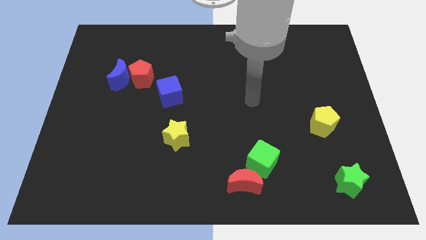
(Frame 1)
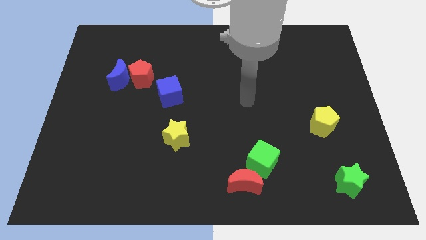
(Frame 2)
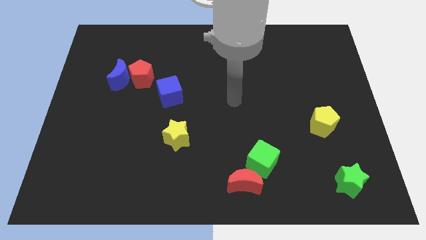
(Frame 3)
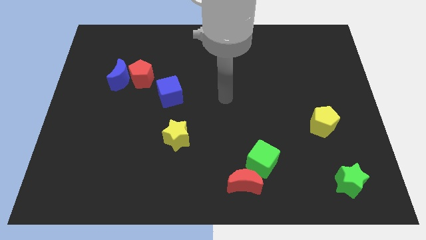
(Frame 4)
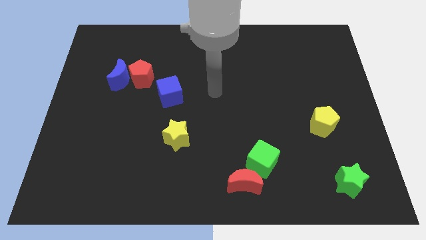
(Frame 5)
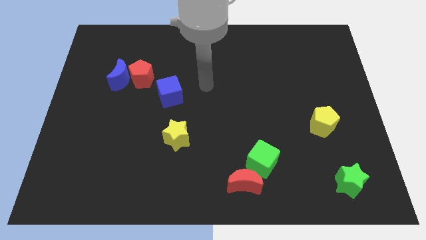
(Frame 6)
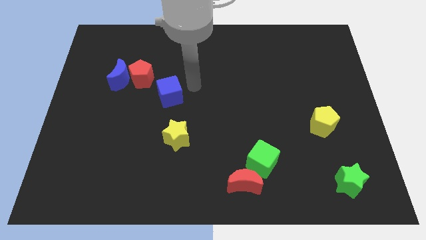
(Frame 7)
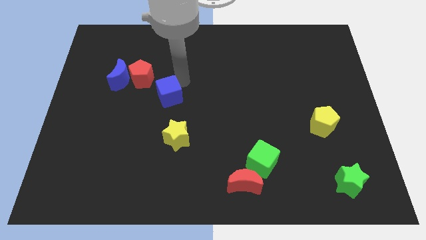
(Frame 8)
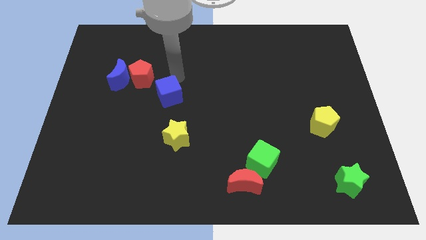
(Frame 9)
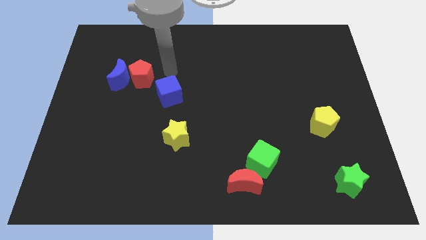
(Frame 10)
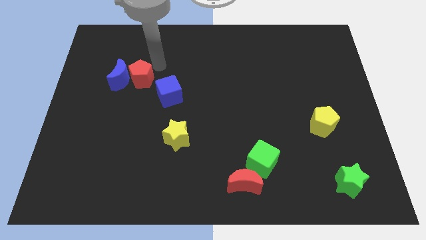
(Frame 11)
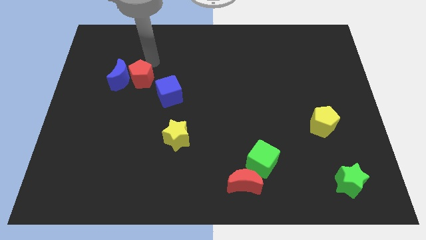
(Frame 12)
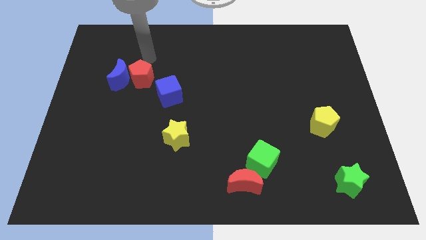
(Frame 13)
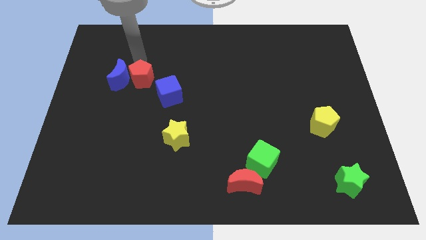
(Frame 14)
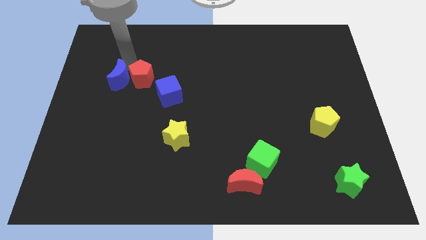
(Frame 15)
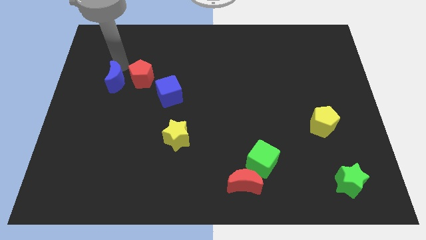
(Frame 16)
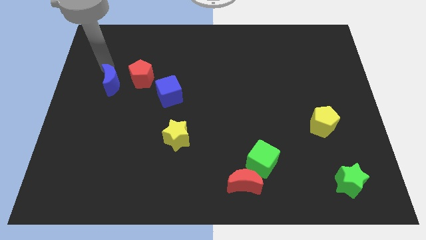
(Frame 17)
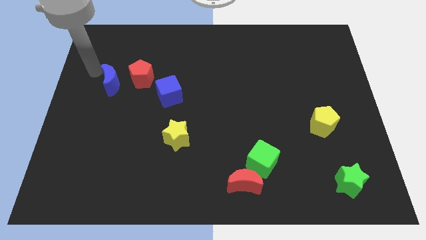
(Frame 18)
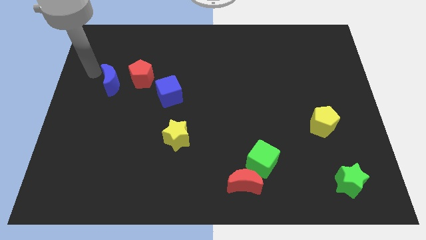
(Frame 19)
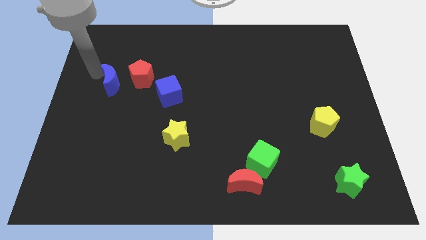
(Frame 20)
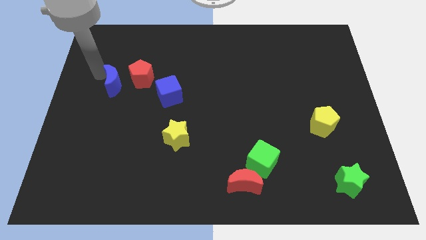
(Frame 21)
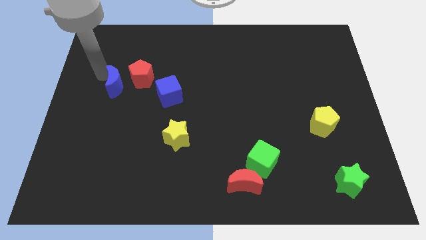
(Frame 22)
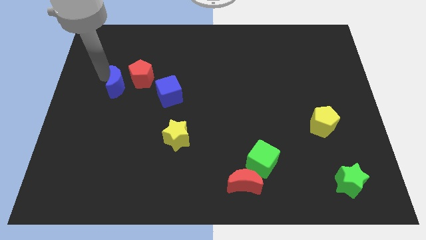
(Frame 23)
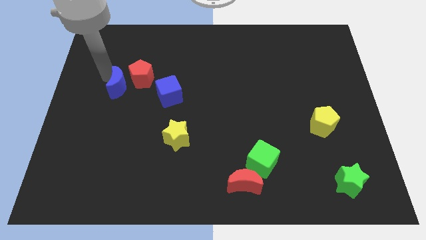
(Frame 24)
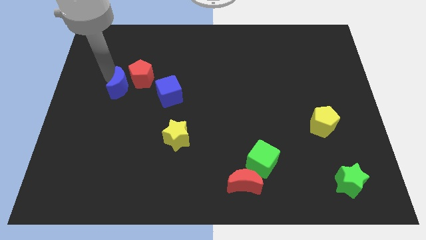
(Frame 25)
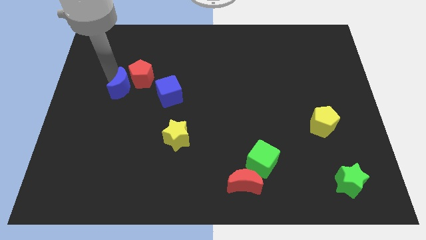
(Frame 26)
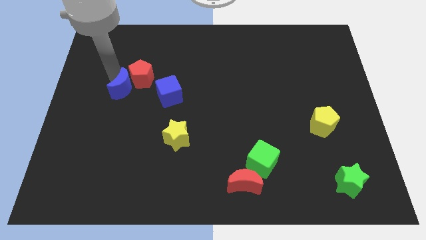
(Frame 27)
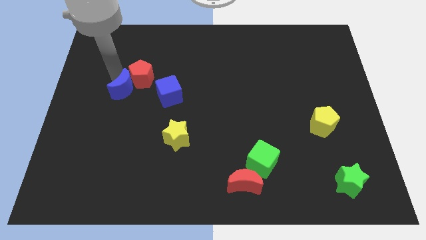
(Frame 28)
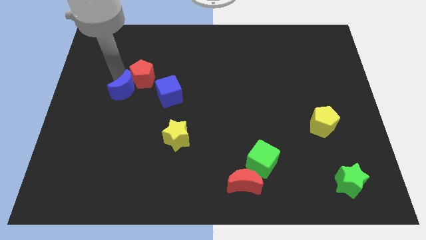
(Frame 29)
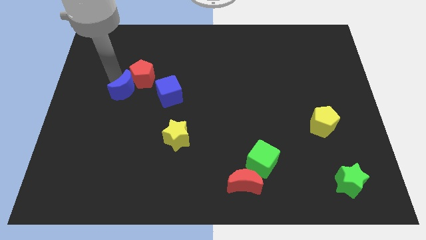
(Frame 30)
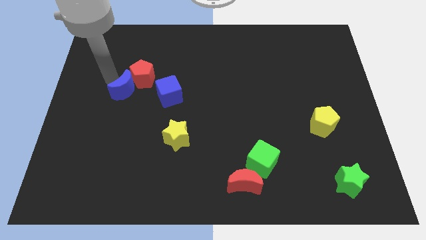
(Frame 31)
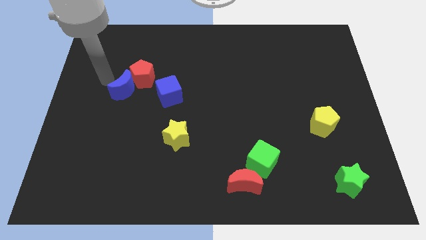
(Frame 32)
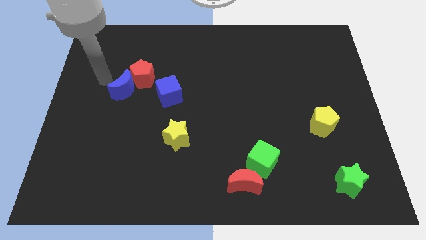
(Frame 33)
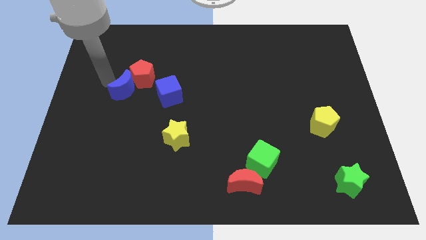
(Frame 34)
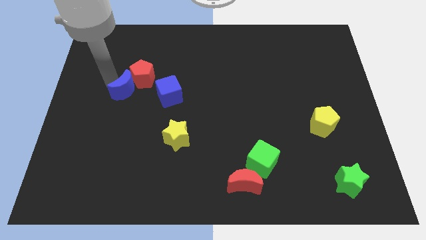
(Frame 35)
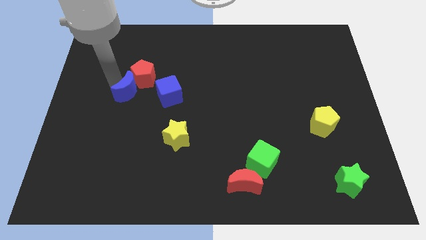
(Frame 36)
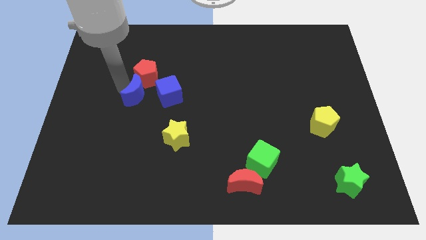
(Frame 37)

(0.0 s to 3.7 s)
slightly push the blue moon downwards and right

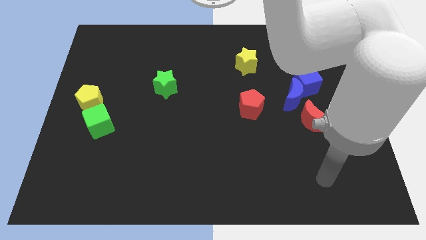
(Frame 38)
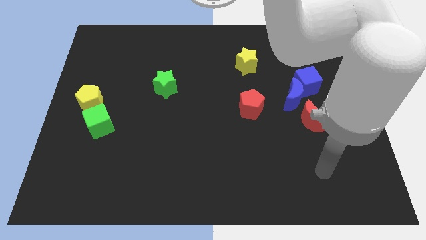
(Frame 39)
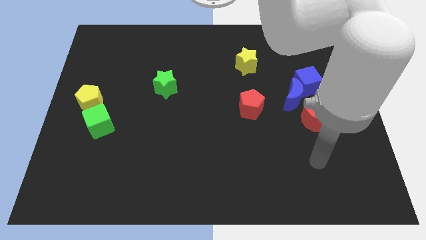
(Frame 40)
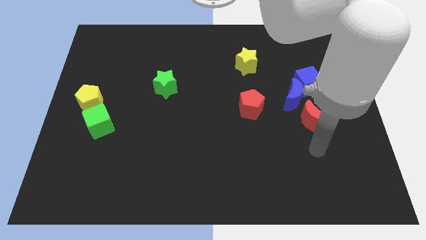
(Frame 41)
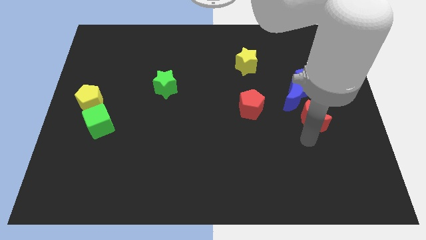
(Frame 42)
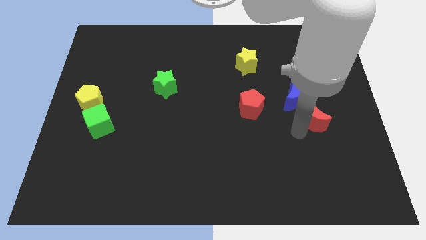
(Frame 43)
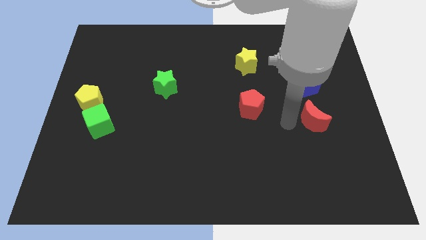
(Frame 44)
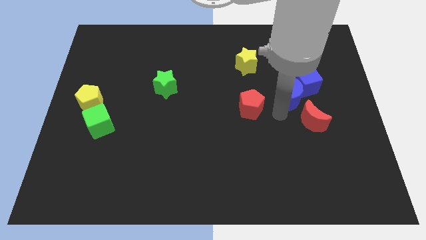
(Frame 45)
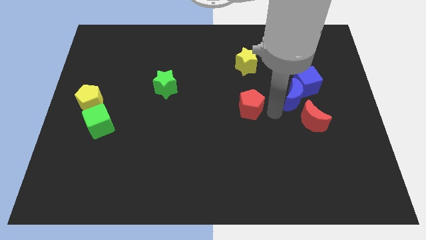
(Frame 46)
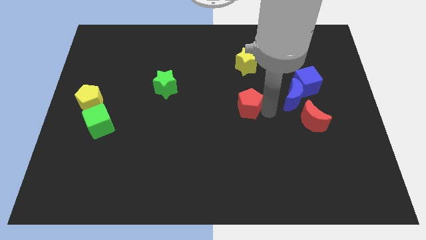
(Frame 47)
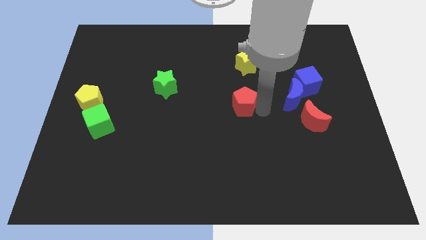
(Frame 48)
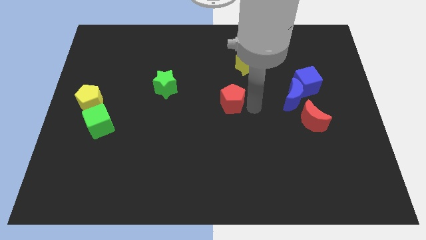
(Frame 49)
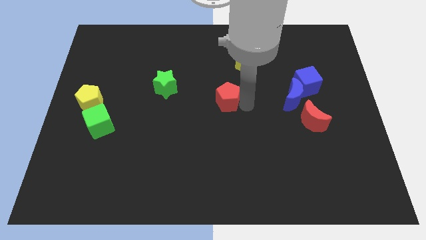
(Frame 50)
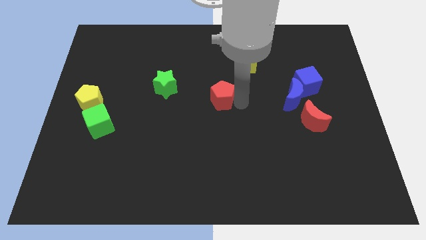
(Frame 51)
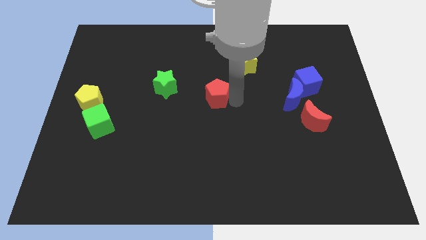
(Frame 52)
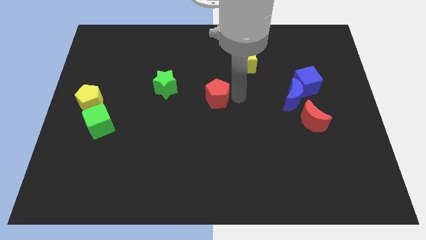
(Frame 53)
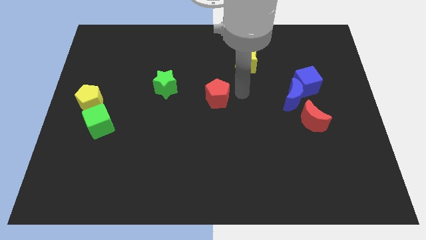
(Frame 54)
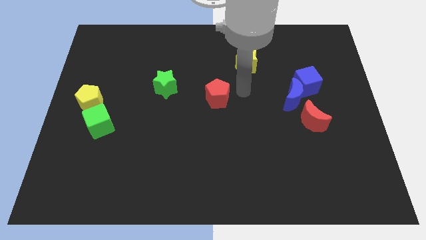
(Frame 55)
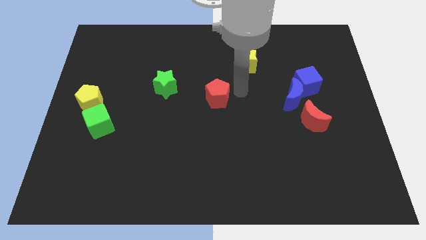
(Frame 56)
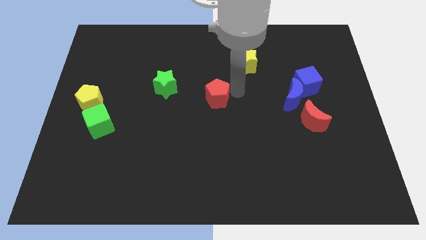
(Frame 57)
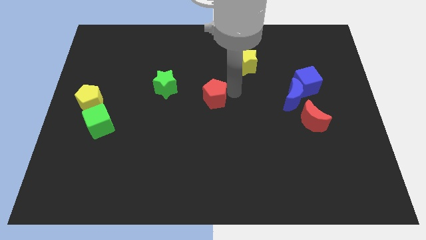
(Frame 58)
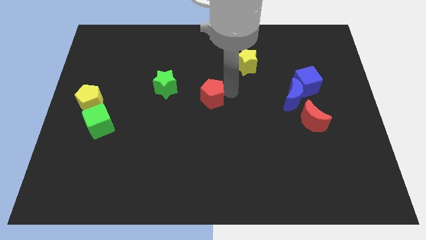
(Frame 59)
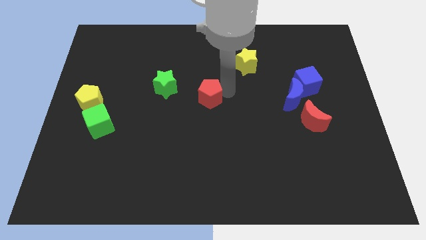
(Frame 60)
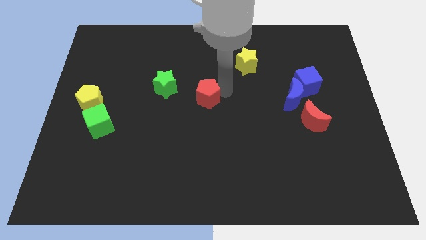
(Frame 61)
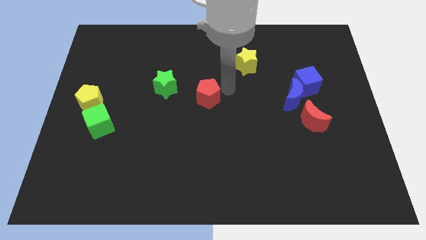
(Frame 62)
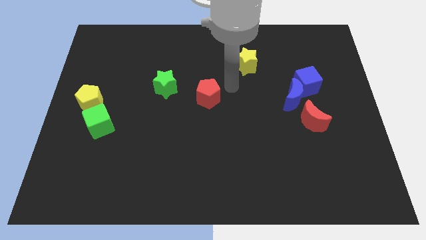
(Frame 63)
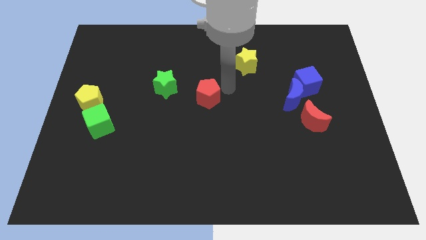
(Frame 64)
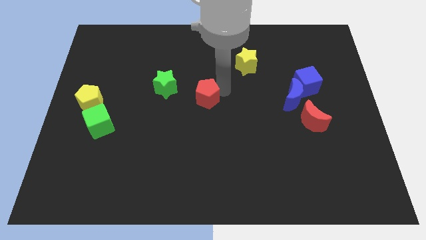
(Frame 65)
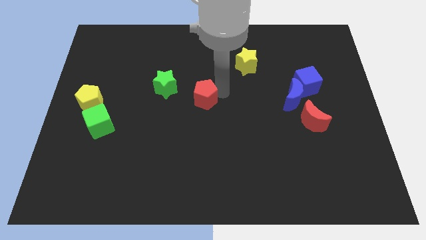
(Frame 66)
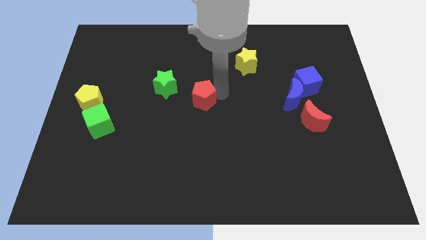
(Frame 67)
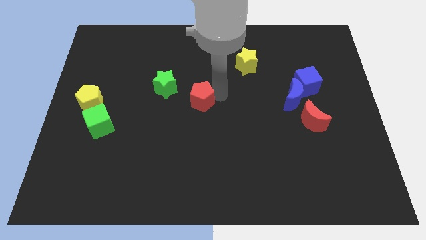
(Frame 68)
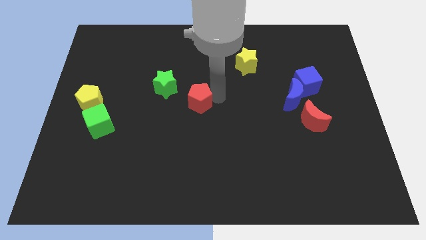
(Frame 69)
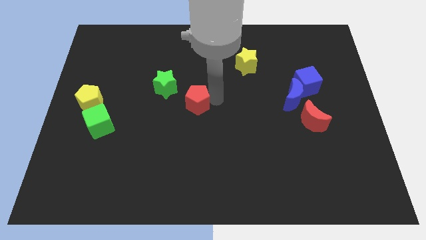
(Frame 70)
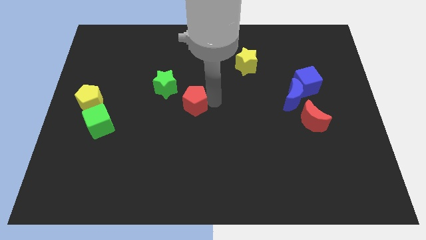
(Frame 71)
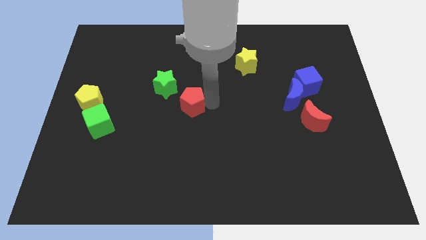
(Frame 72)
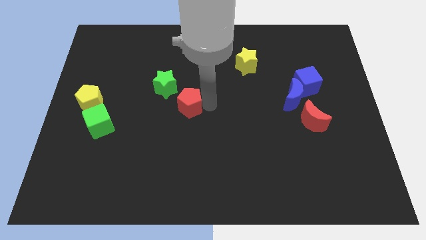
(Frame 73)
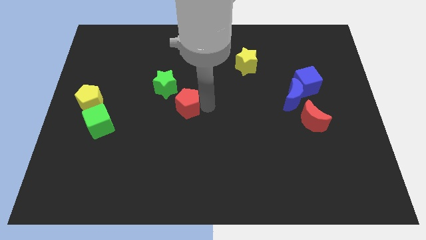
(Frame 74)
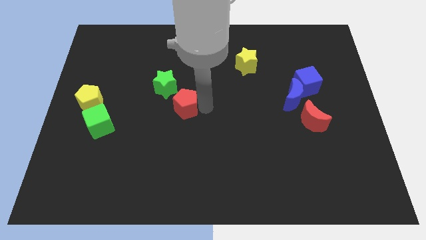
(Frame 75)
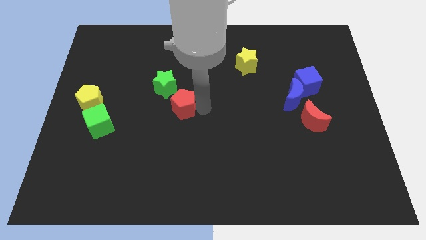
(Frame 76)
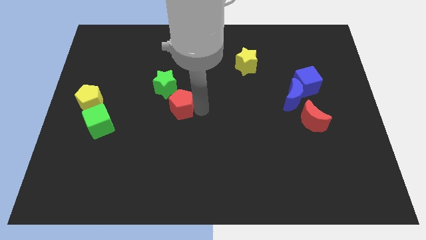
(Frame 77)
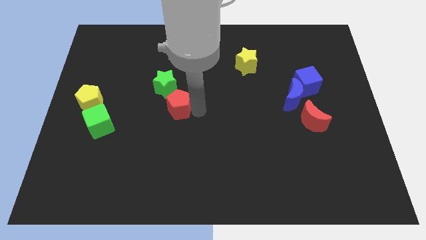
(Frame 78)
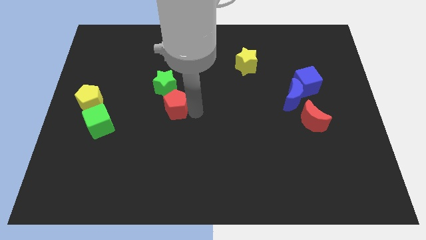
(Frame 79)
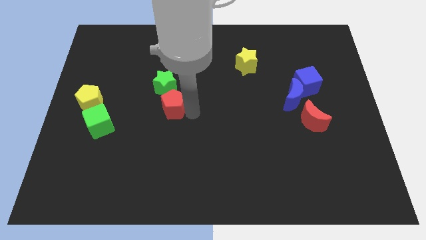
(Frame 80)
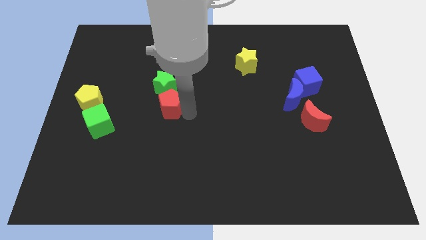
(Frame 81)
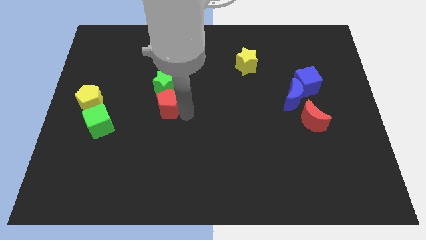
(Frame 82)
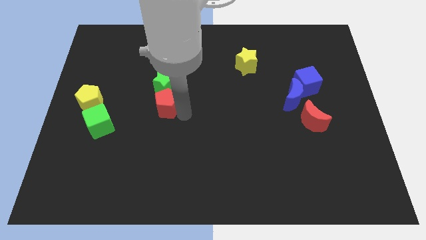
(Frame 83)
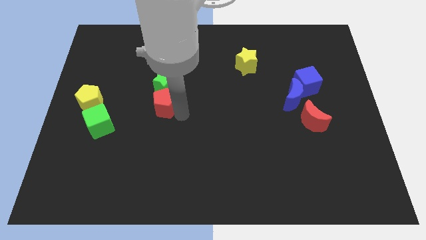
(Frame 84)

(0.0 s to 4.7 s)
push the red pentagon left
